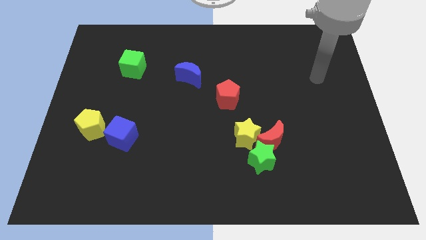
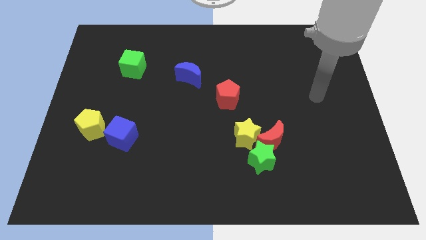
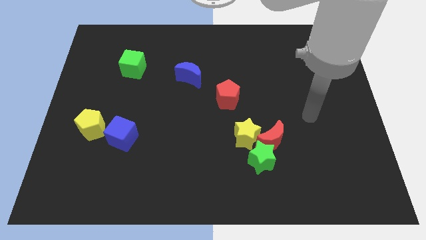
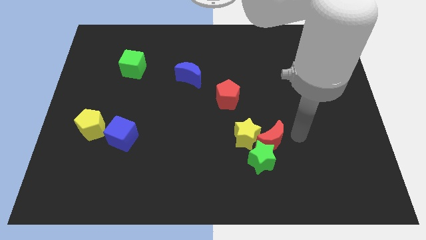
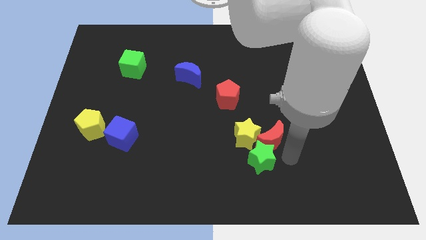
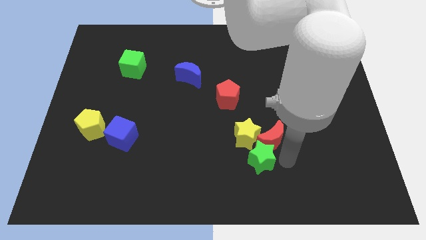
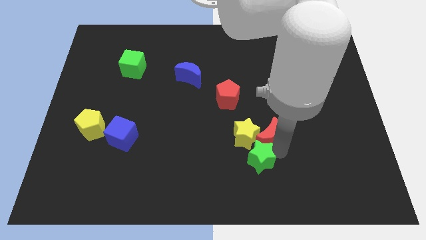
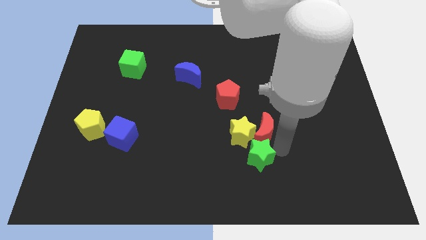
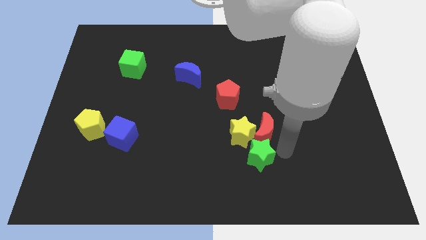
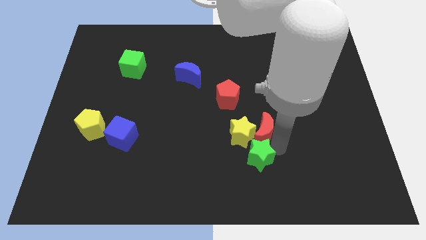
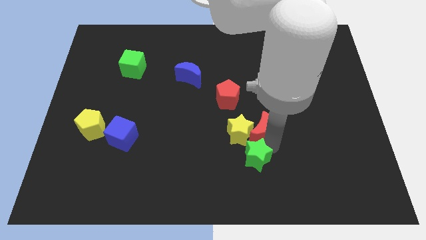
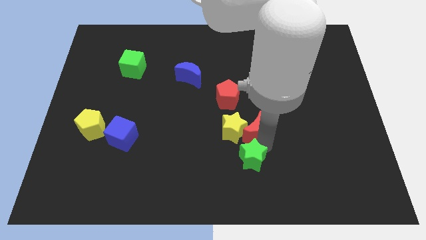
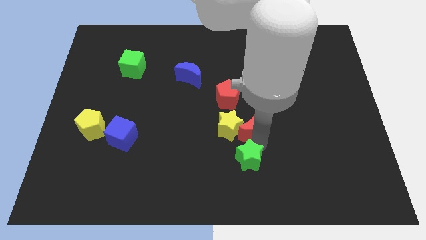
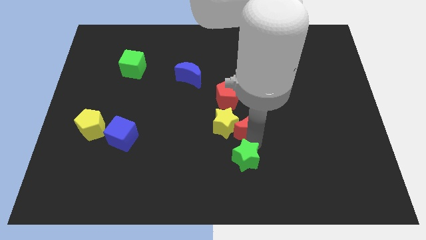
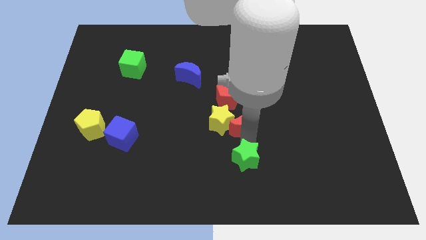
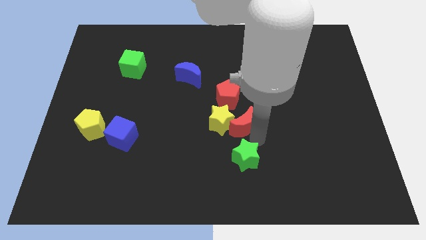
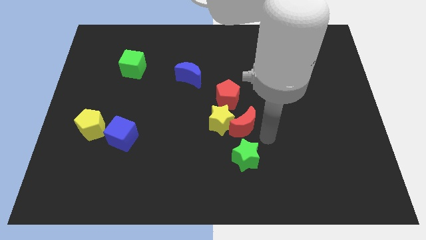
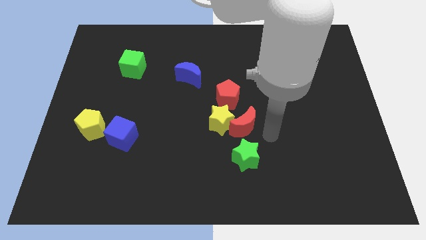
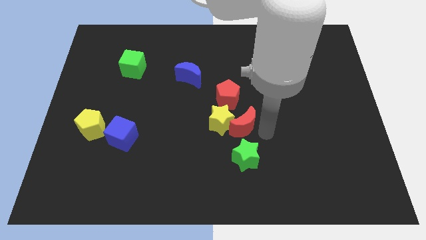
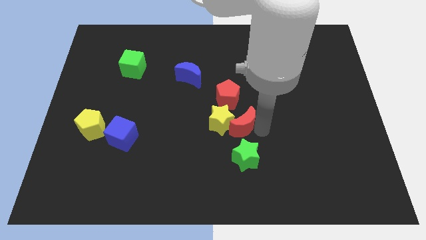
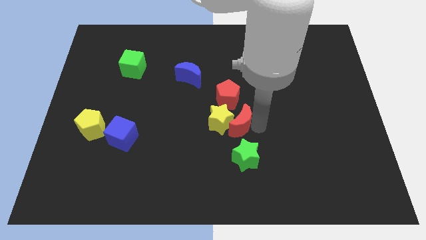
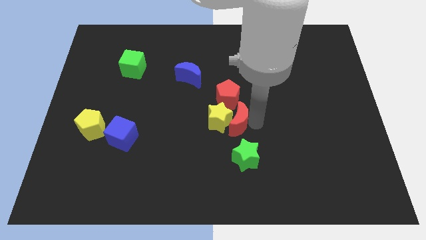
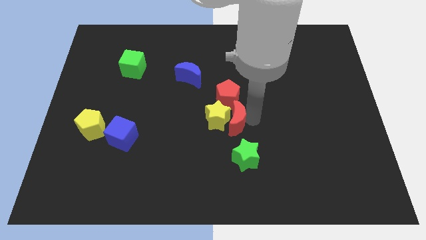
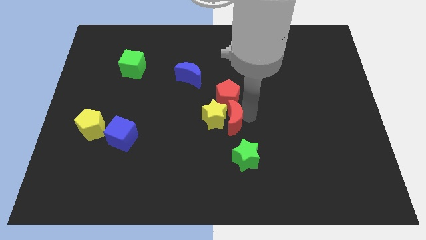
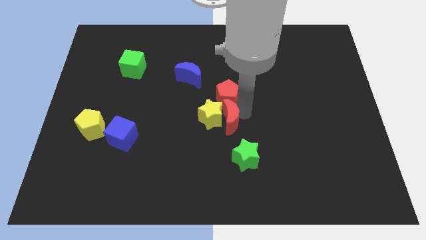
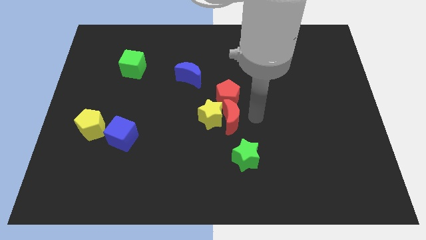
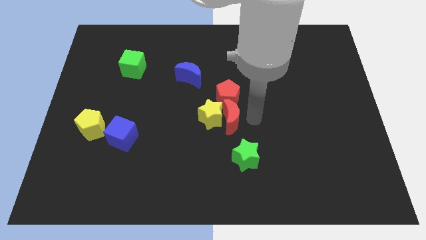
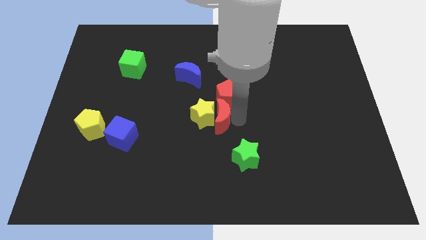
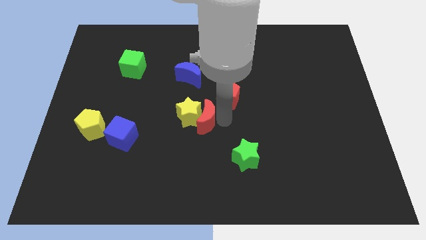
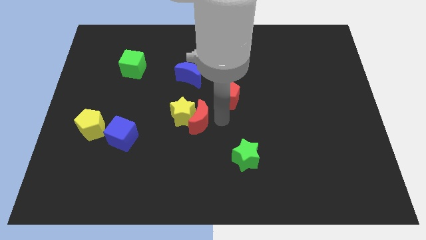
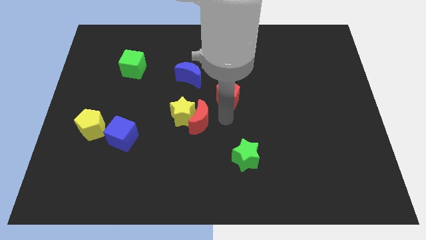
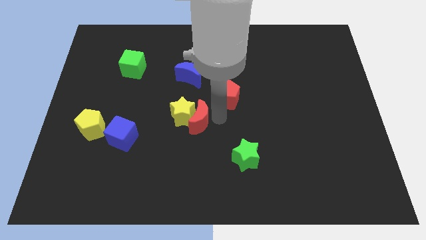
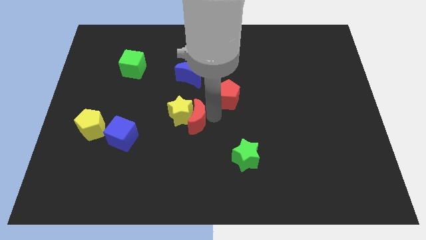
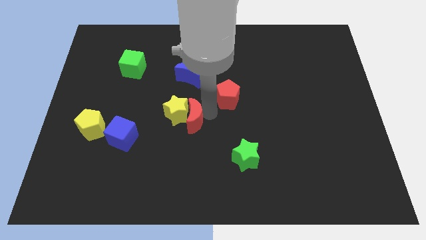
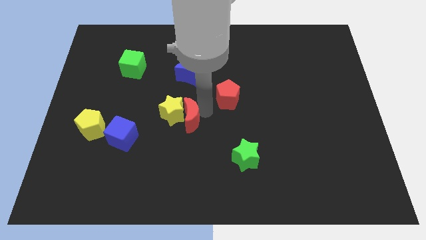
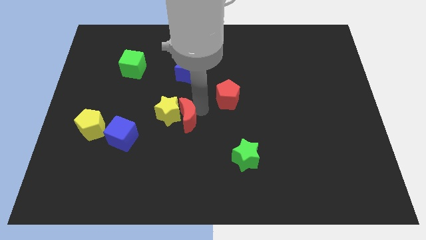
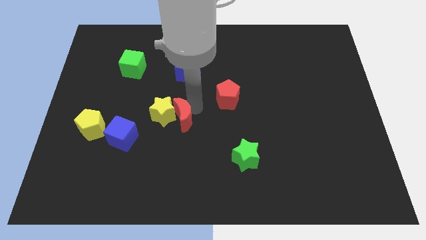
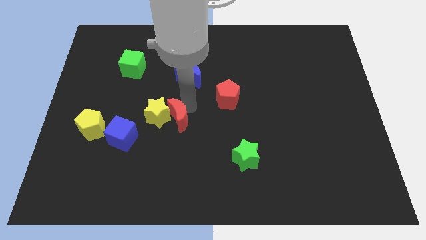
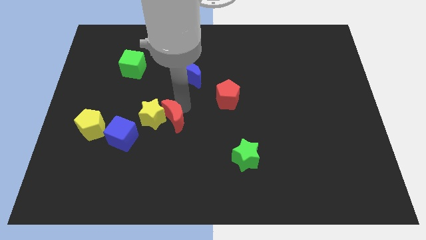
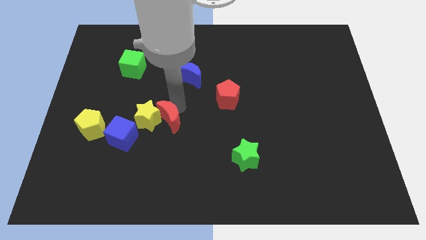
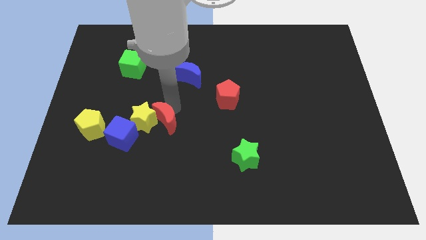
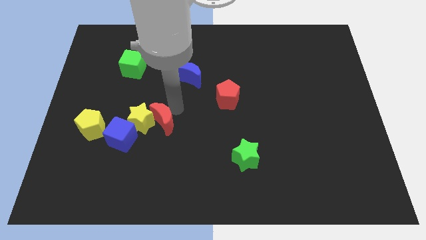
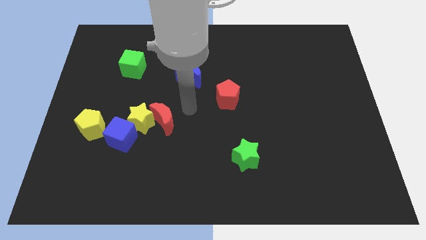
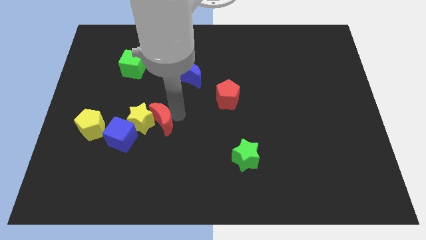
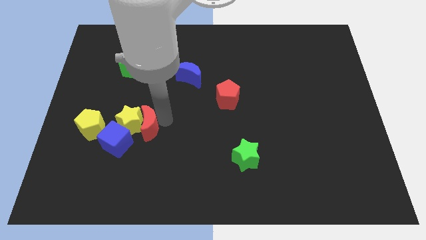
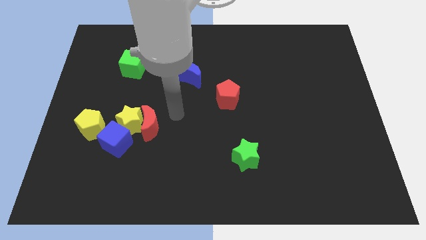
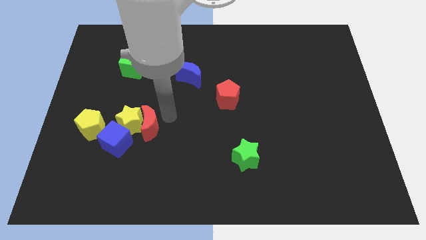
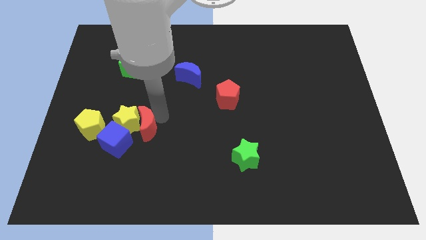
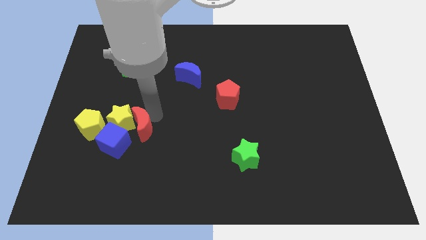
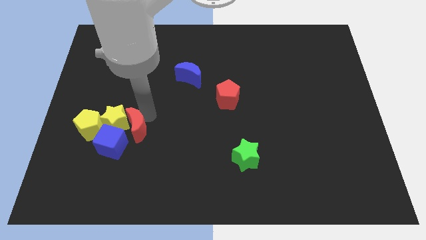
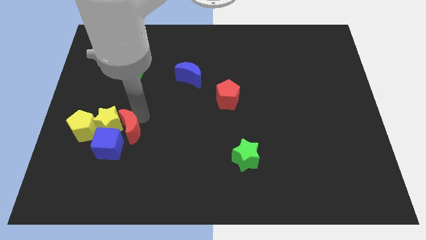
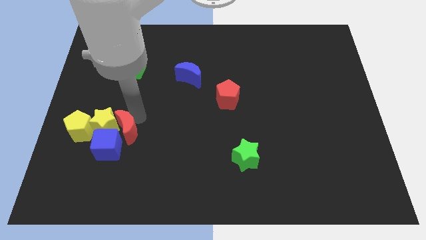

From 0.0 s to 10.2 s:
put the red moon to the blue cube

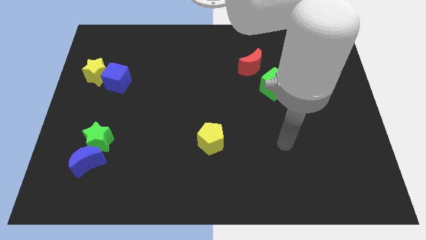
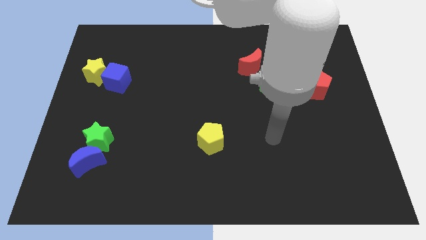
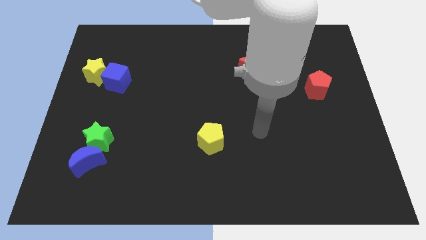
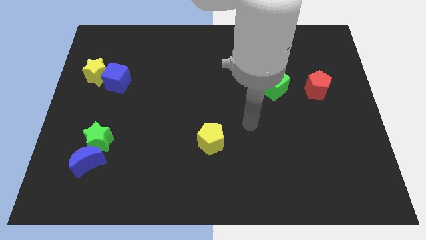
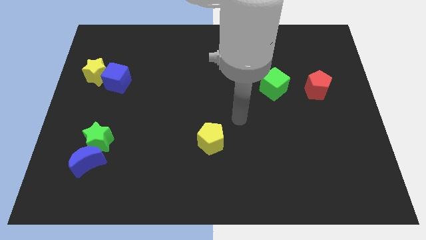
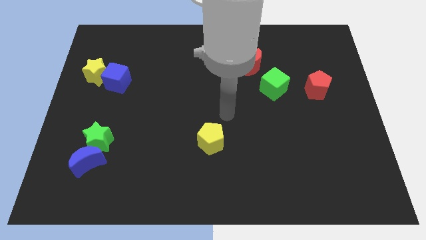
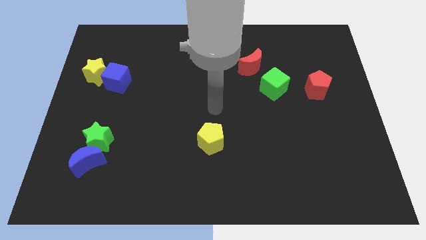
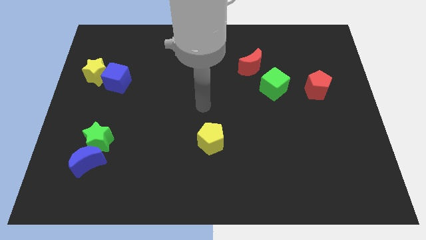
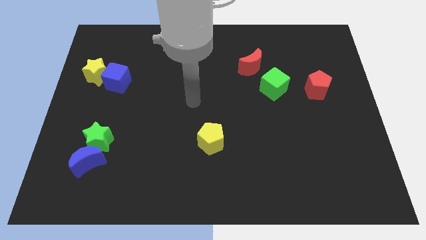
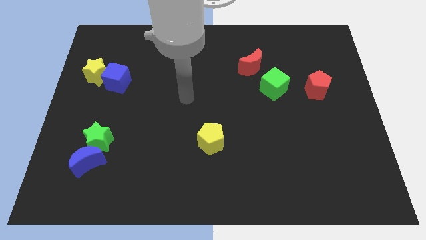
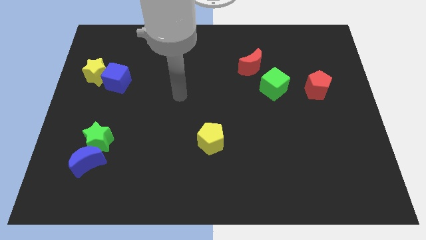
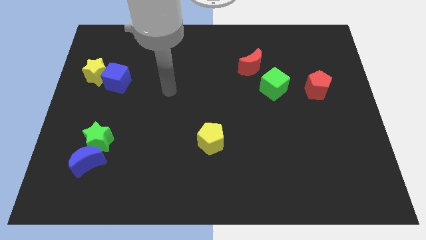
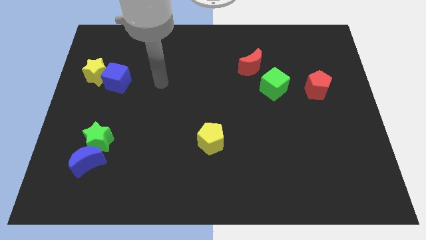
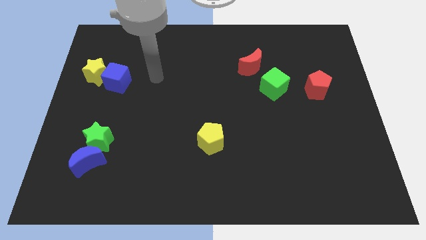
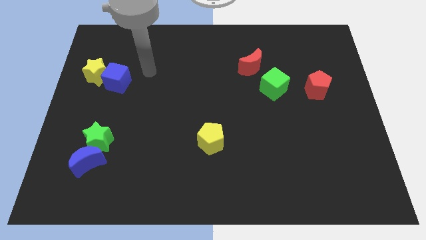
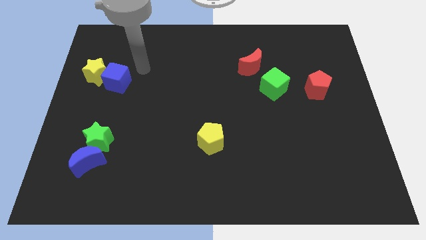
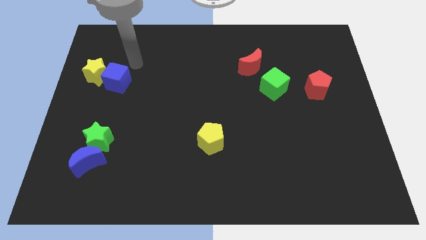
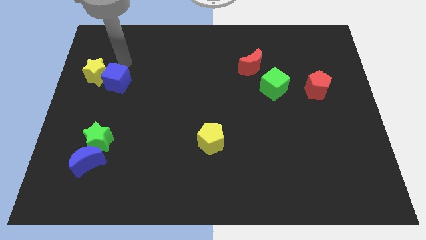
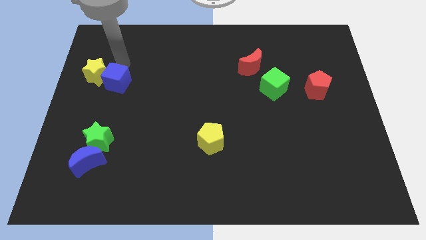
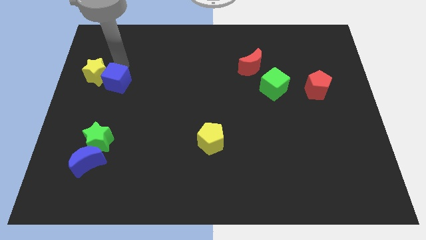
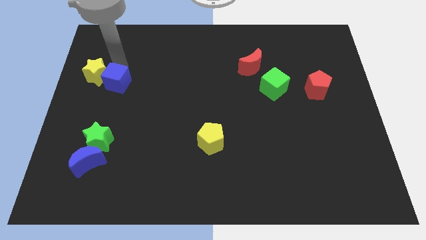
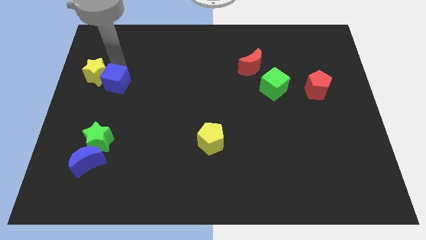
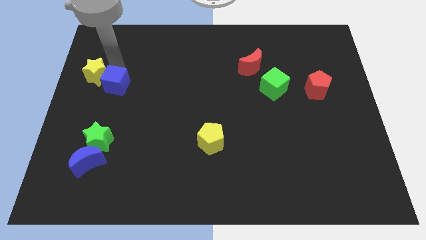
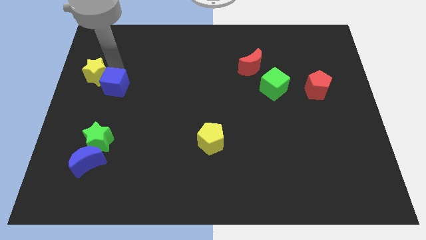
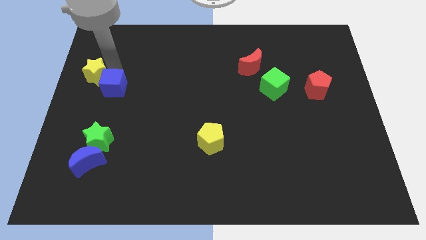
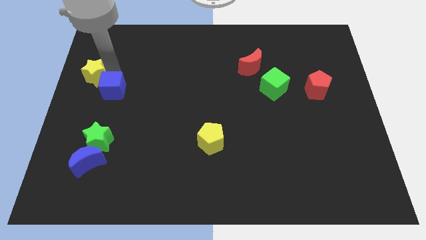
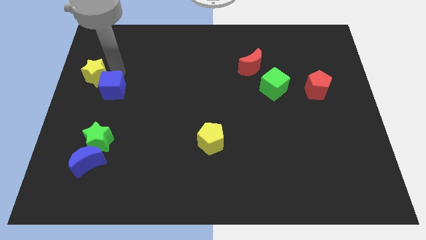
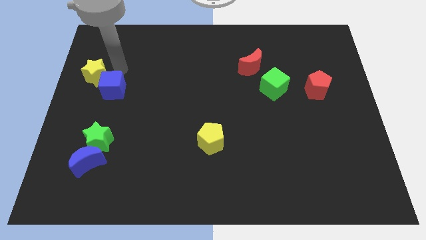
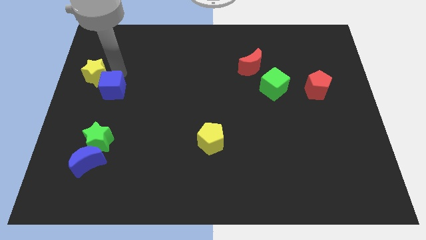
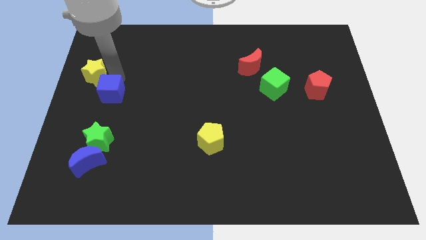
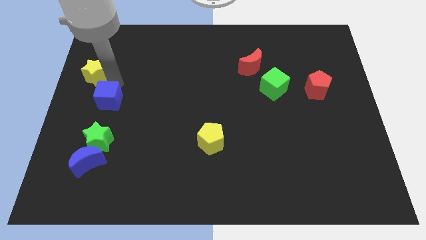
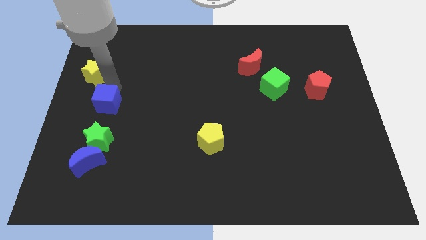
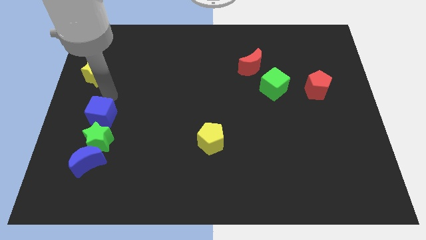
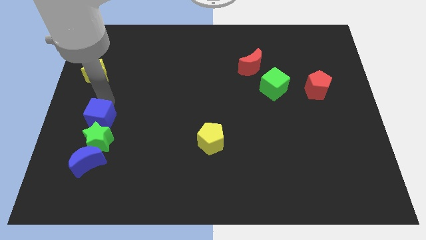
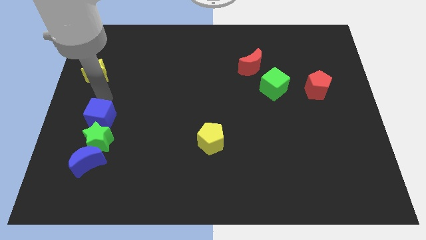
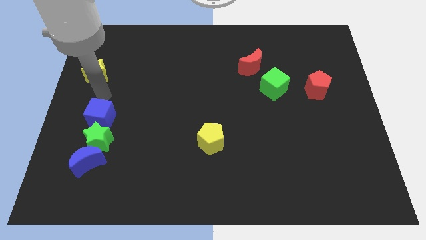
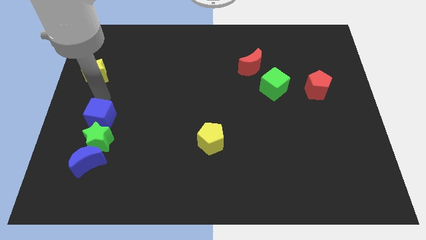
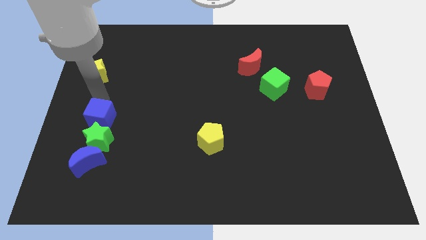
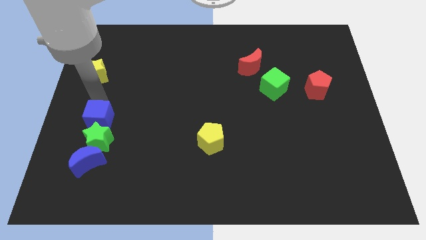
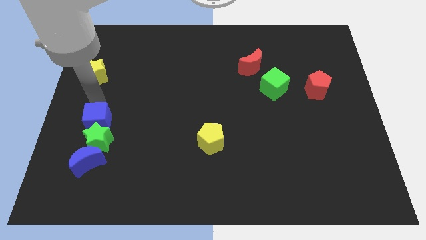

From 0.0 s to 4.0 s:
slide the blue cube towards the green star
